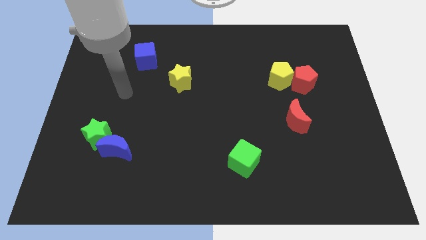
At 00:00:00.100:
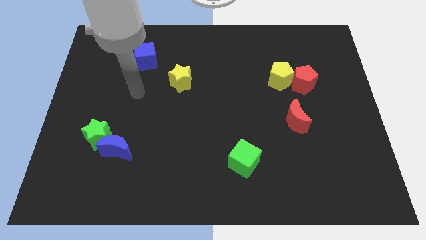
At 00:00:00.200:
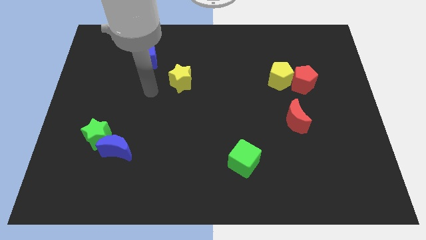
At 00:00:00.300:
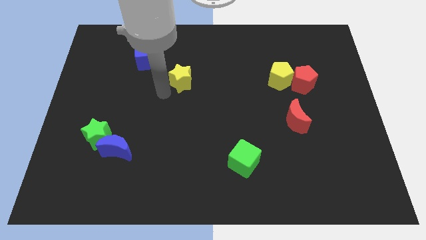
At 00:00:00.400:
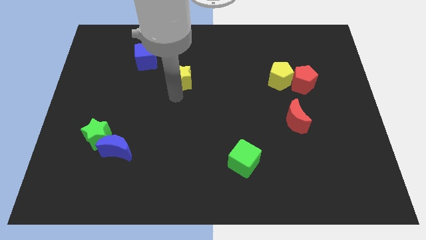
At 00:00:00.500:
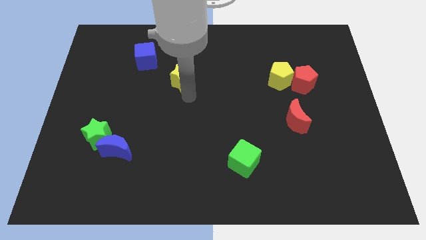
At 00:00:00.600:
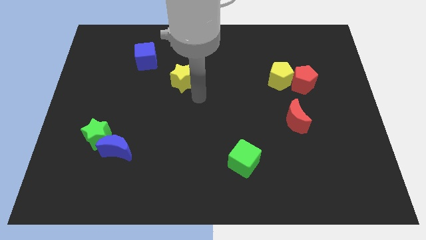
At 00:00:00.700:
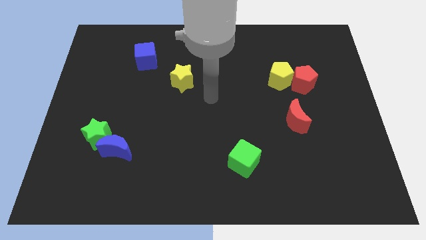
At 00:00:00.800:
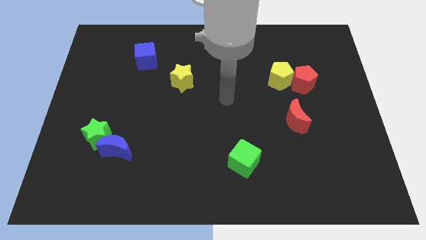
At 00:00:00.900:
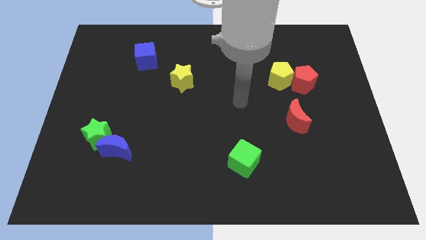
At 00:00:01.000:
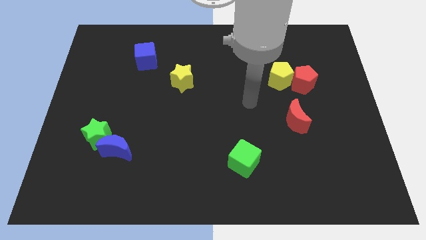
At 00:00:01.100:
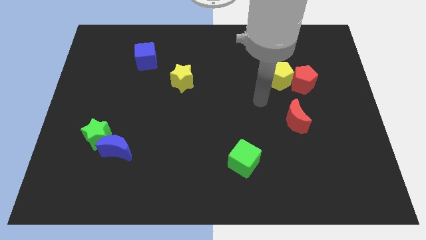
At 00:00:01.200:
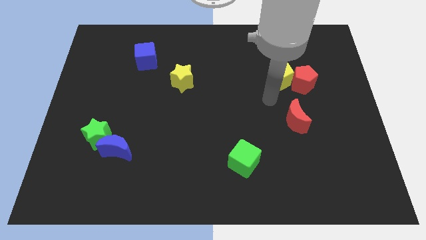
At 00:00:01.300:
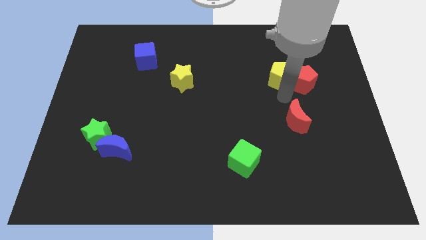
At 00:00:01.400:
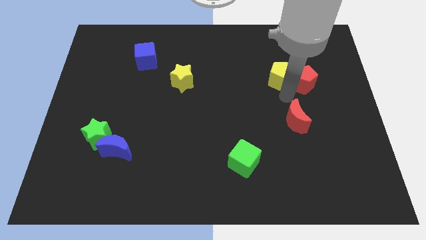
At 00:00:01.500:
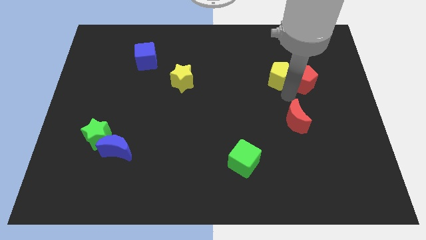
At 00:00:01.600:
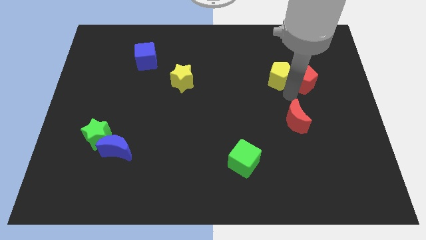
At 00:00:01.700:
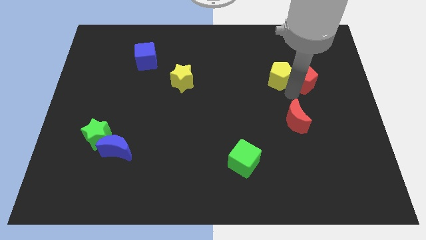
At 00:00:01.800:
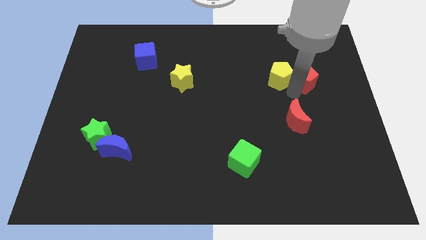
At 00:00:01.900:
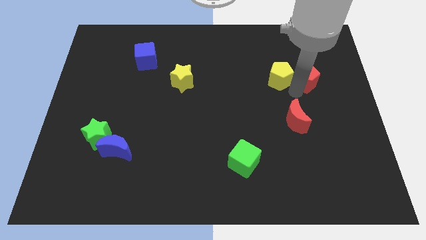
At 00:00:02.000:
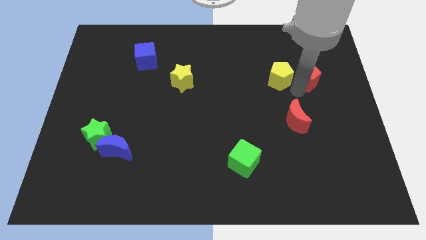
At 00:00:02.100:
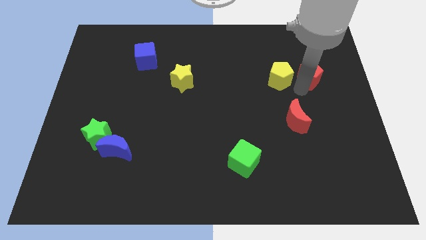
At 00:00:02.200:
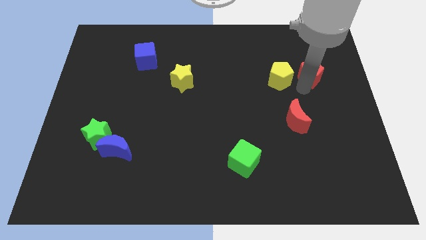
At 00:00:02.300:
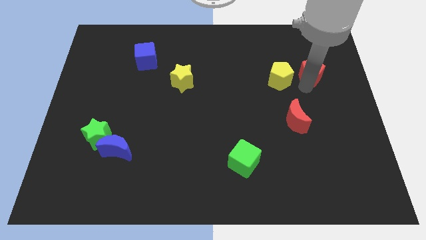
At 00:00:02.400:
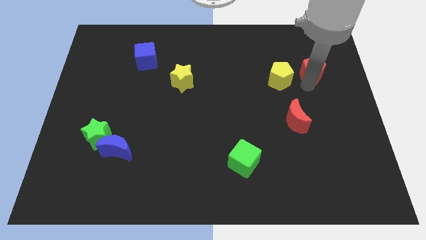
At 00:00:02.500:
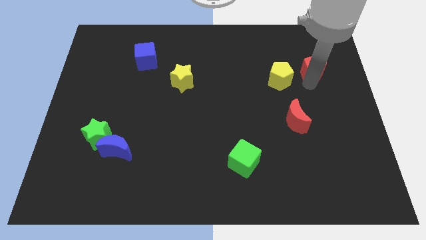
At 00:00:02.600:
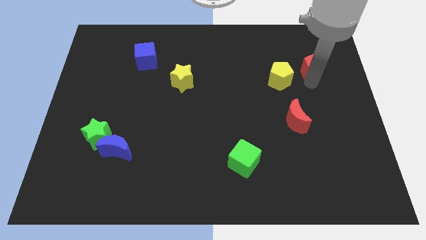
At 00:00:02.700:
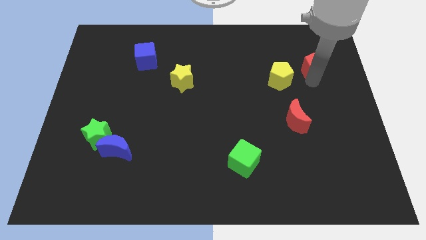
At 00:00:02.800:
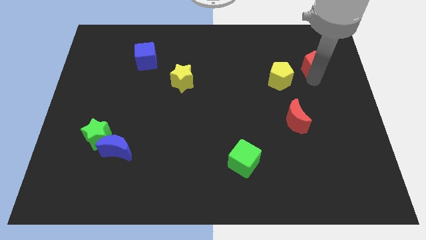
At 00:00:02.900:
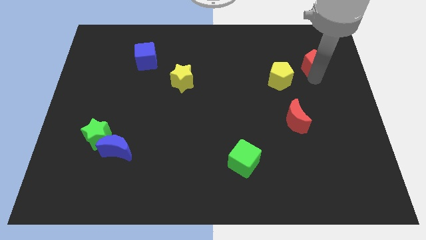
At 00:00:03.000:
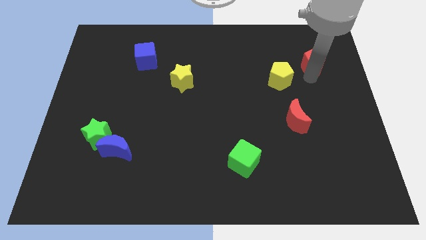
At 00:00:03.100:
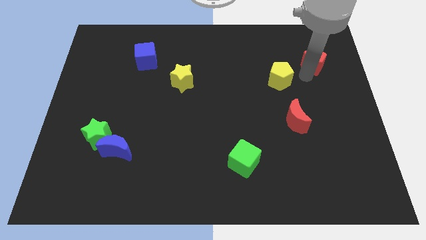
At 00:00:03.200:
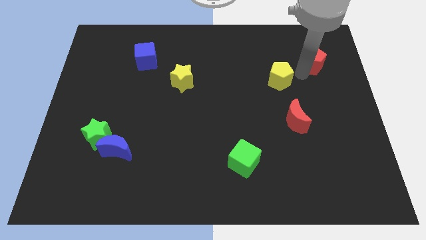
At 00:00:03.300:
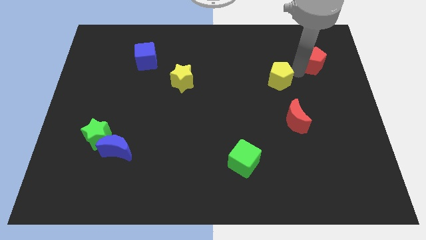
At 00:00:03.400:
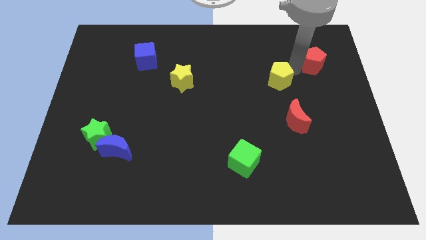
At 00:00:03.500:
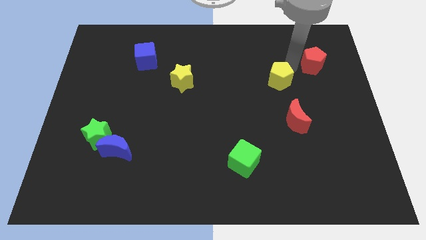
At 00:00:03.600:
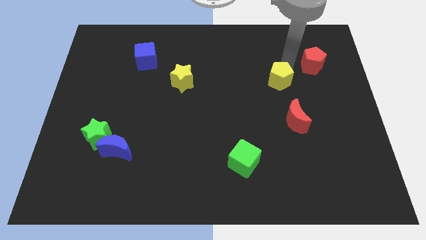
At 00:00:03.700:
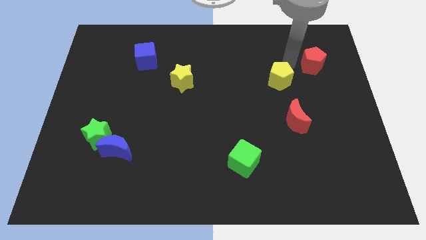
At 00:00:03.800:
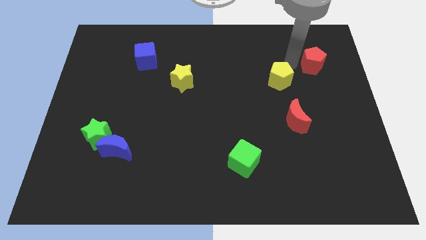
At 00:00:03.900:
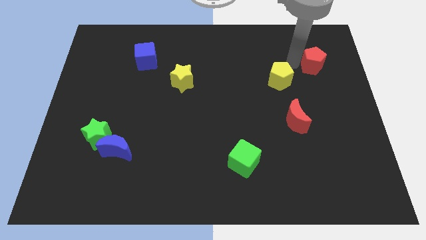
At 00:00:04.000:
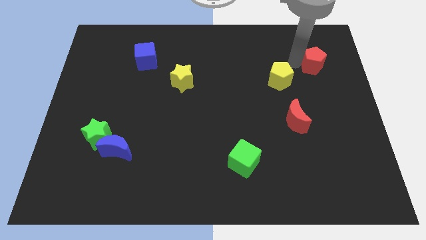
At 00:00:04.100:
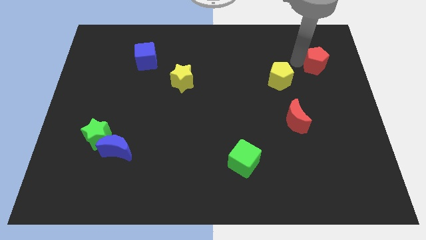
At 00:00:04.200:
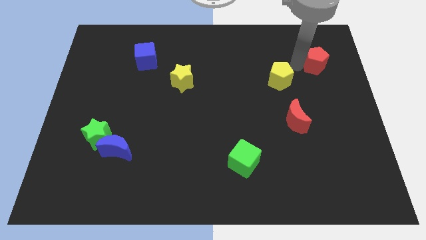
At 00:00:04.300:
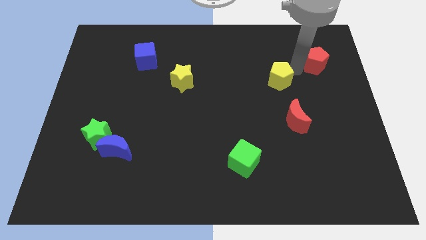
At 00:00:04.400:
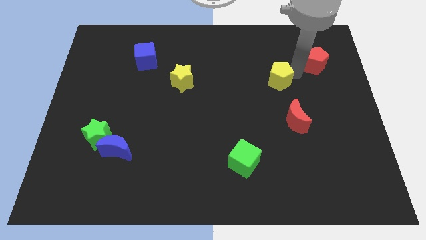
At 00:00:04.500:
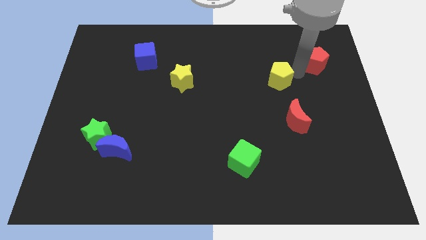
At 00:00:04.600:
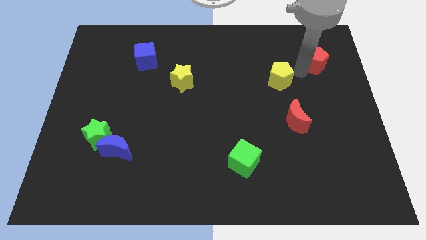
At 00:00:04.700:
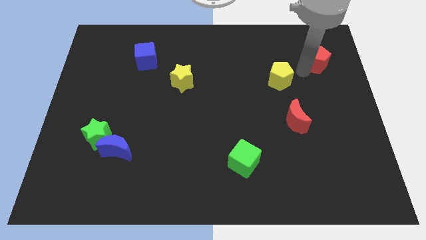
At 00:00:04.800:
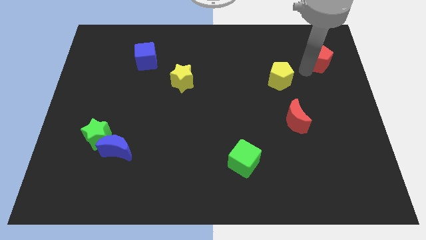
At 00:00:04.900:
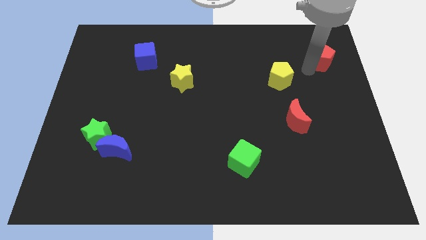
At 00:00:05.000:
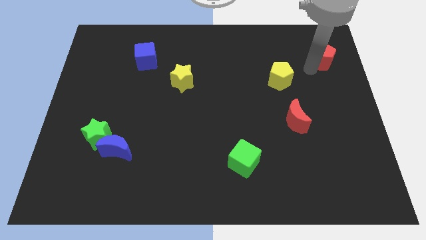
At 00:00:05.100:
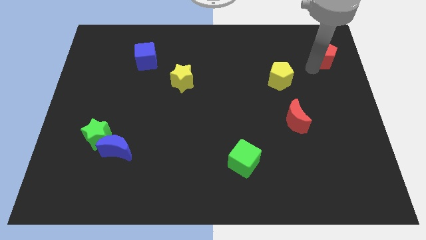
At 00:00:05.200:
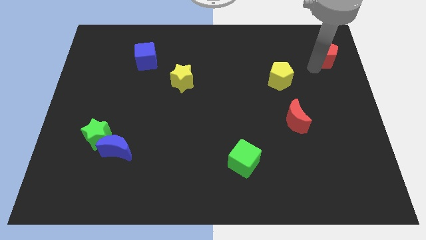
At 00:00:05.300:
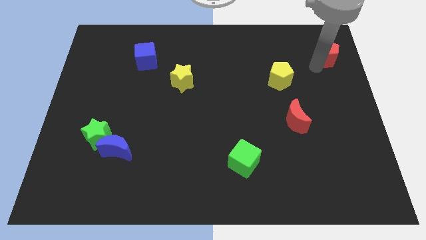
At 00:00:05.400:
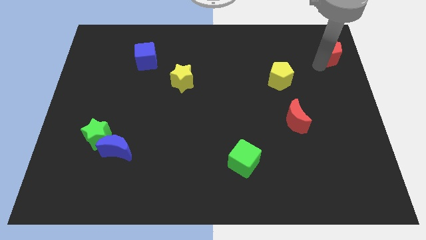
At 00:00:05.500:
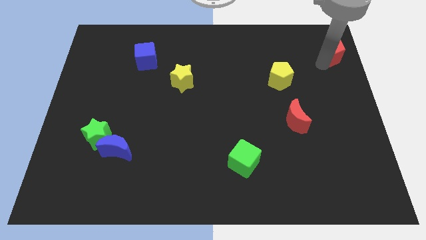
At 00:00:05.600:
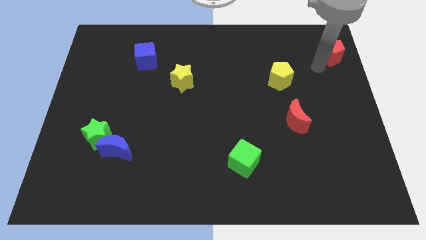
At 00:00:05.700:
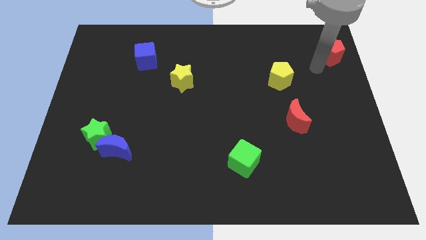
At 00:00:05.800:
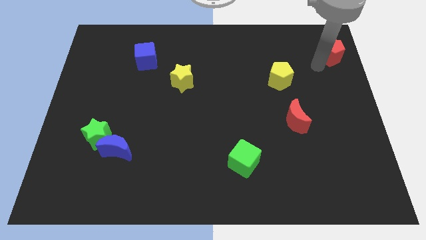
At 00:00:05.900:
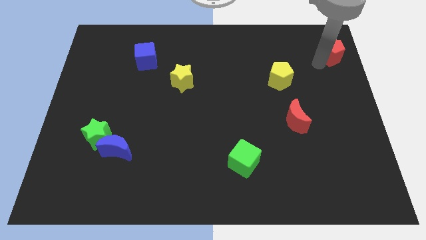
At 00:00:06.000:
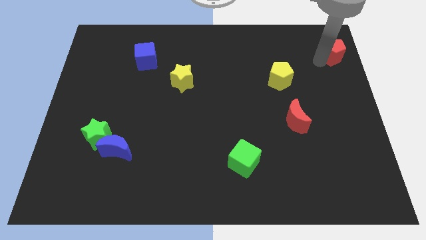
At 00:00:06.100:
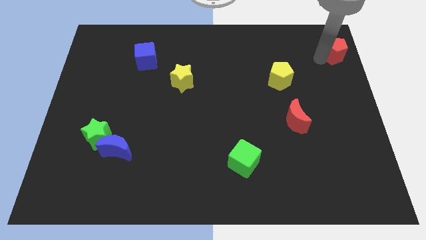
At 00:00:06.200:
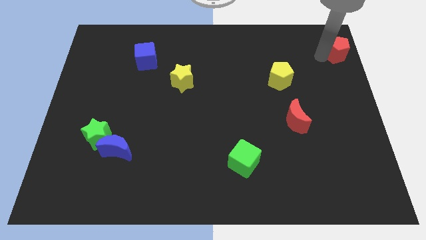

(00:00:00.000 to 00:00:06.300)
push the red pentagon to the upper right corner

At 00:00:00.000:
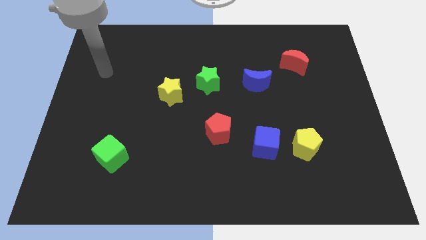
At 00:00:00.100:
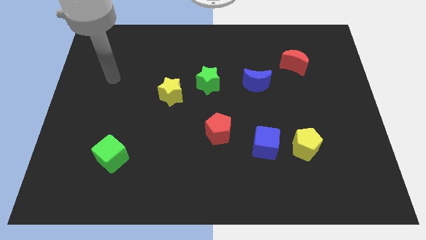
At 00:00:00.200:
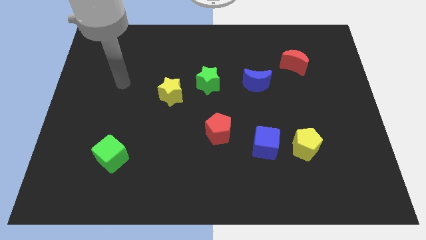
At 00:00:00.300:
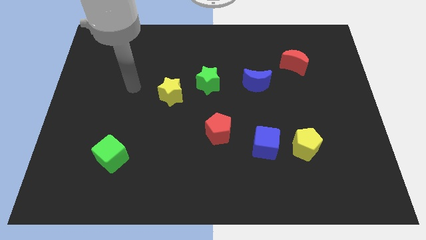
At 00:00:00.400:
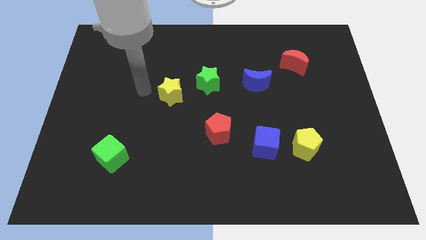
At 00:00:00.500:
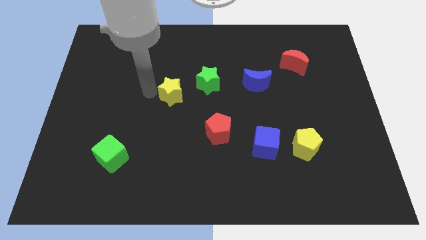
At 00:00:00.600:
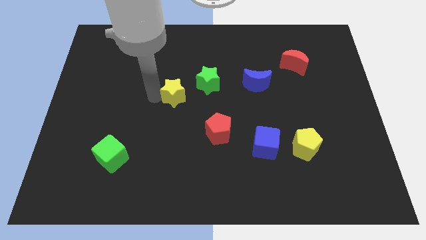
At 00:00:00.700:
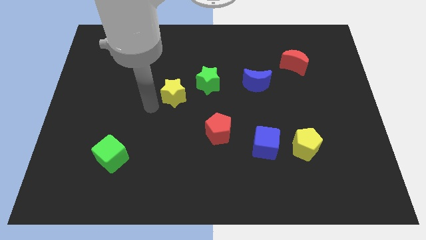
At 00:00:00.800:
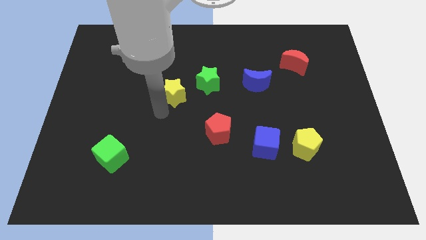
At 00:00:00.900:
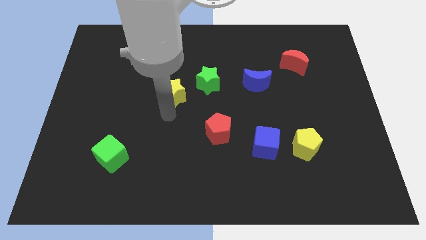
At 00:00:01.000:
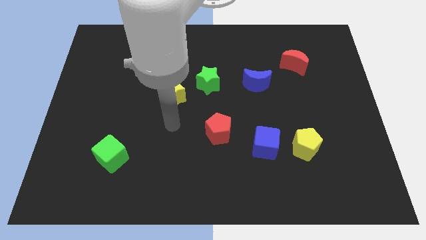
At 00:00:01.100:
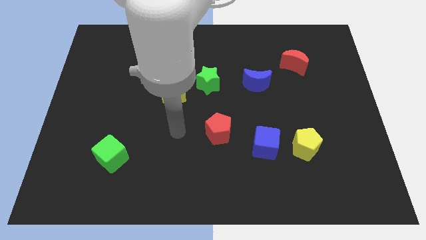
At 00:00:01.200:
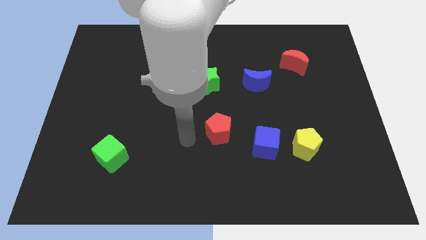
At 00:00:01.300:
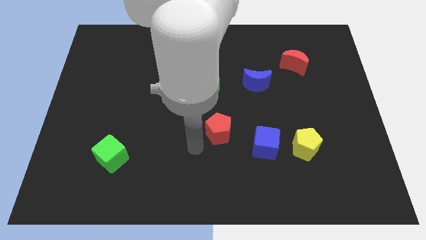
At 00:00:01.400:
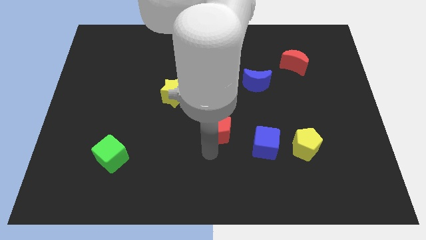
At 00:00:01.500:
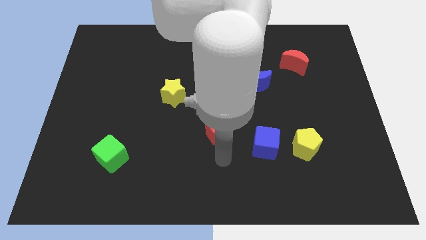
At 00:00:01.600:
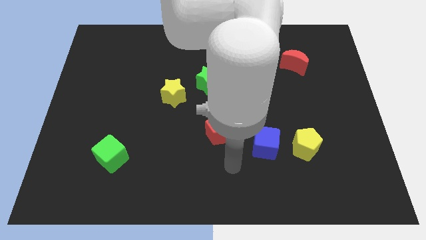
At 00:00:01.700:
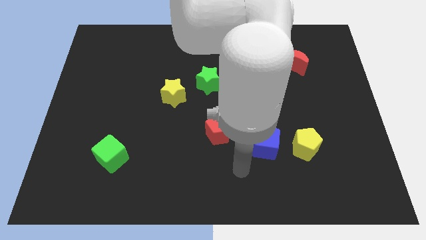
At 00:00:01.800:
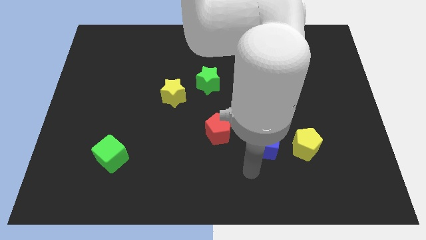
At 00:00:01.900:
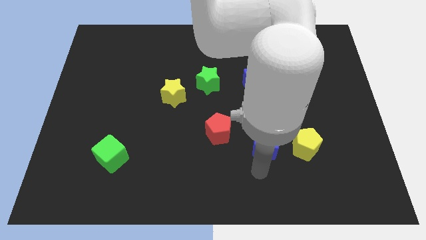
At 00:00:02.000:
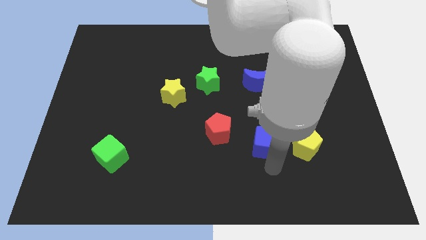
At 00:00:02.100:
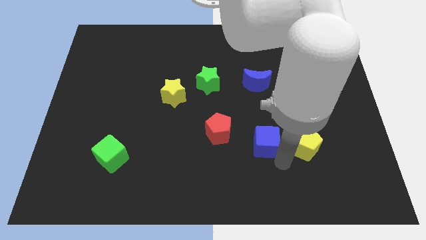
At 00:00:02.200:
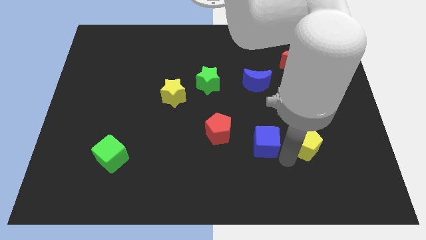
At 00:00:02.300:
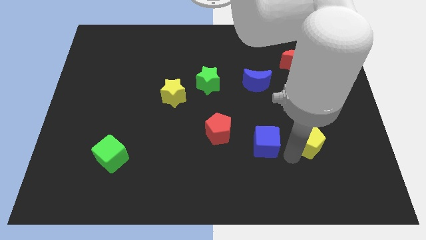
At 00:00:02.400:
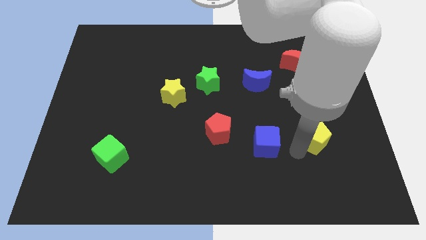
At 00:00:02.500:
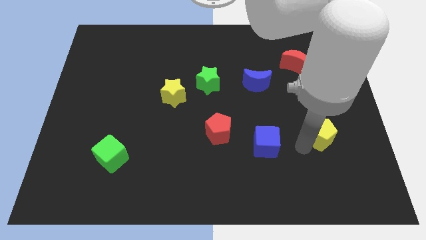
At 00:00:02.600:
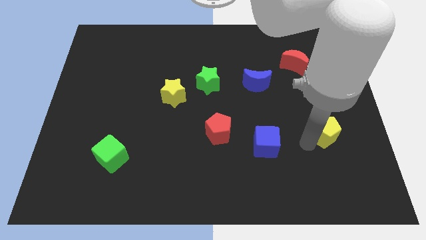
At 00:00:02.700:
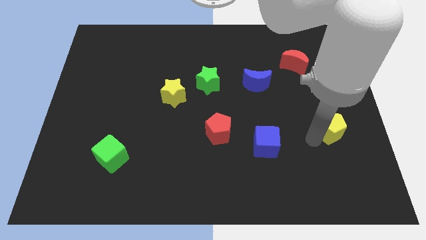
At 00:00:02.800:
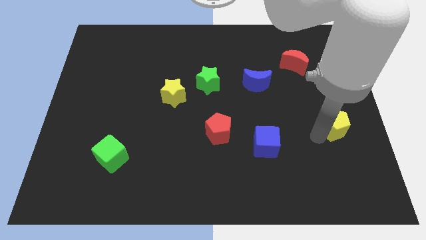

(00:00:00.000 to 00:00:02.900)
put the yellow pentagon to the right side of the board
